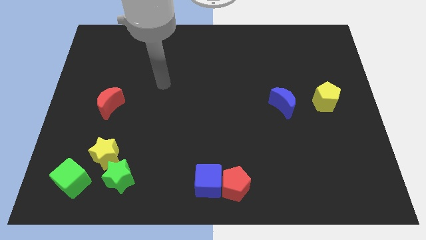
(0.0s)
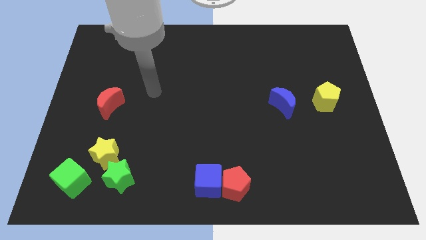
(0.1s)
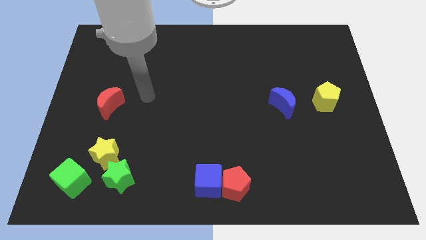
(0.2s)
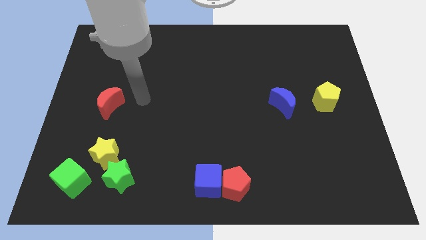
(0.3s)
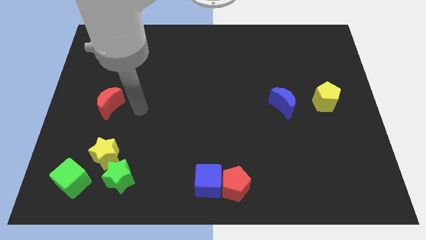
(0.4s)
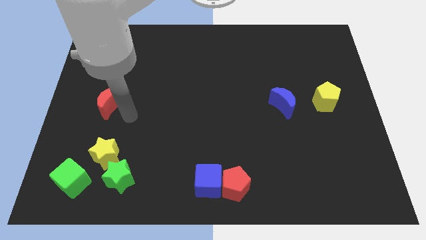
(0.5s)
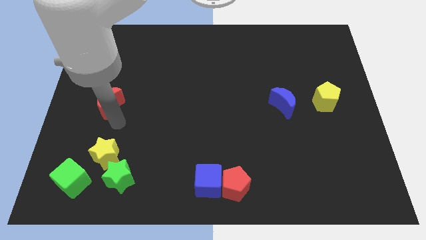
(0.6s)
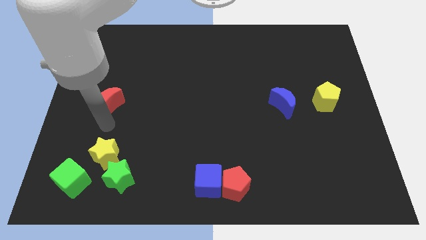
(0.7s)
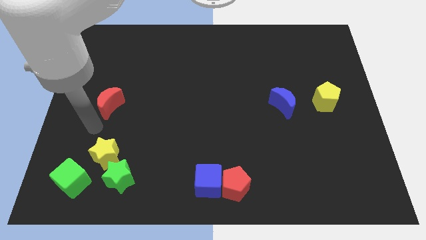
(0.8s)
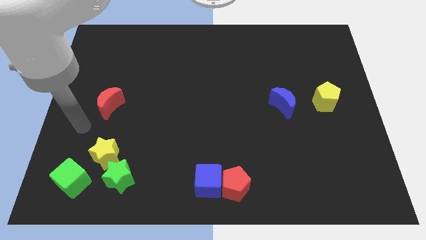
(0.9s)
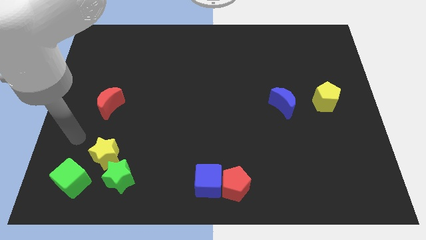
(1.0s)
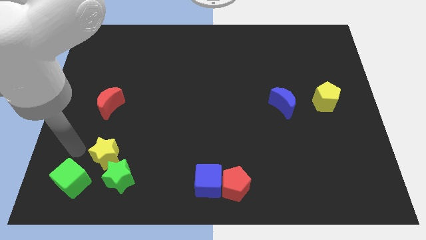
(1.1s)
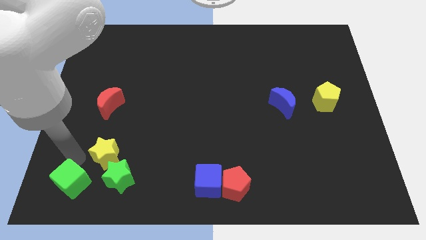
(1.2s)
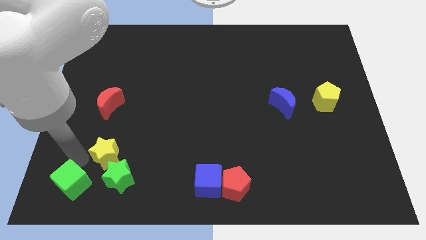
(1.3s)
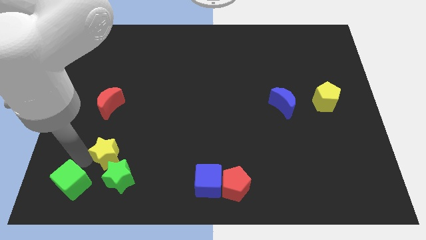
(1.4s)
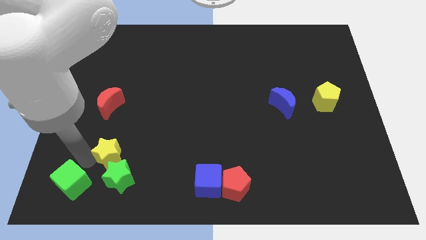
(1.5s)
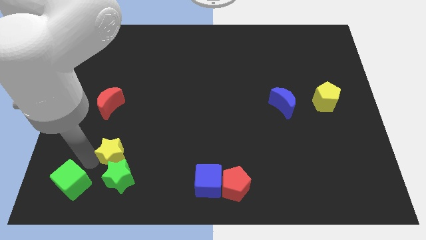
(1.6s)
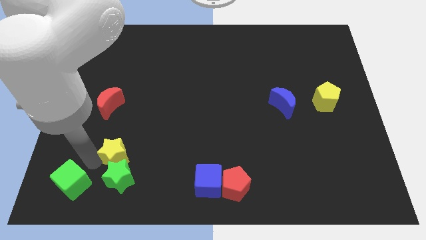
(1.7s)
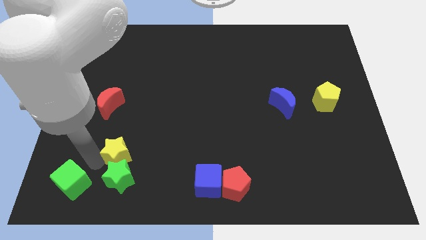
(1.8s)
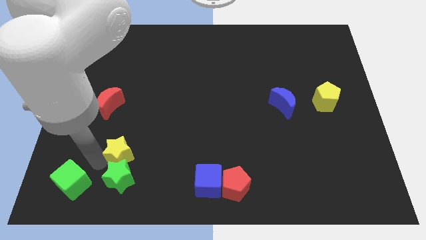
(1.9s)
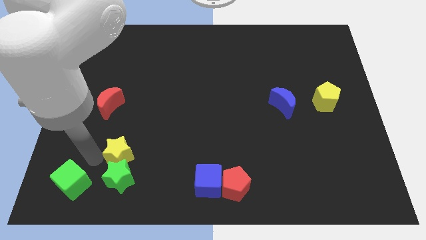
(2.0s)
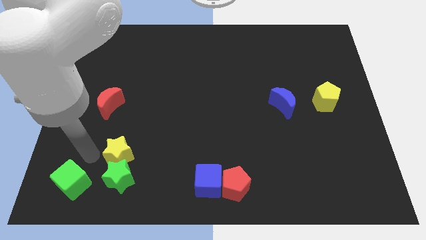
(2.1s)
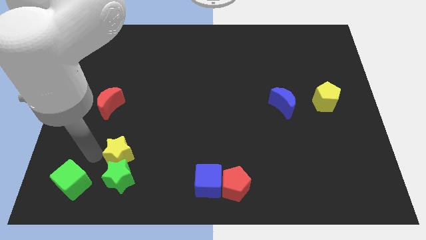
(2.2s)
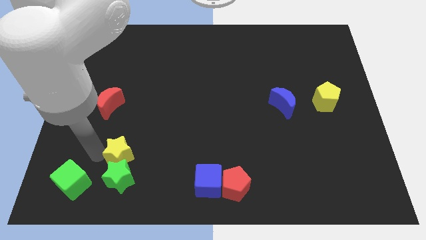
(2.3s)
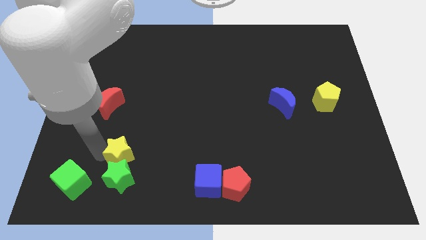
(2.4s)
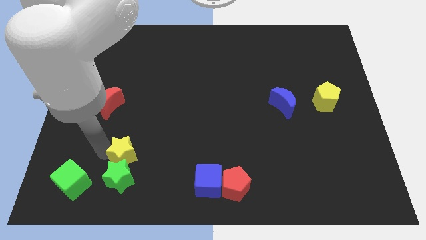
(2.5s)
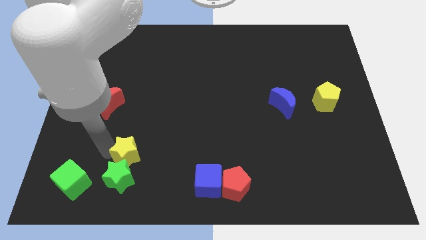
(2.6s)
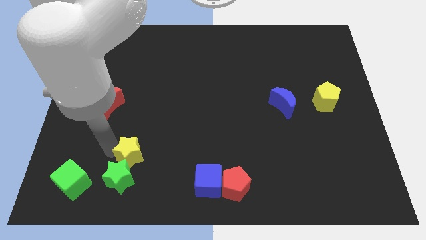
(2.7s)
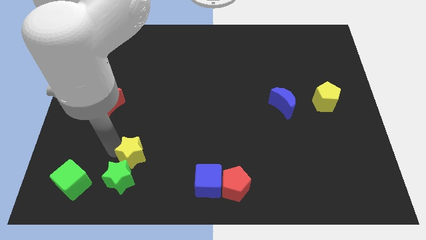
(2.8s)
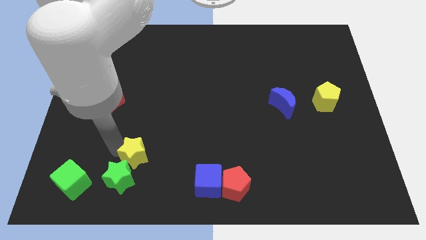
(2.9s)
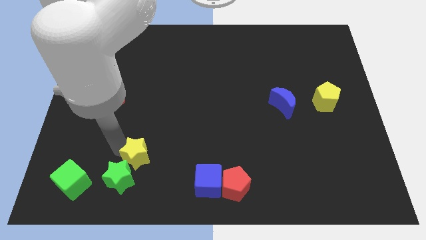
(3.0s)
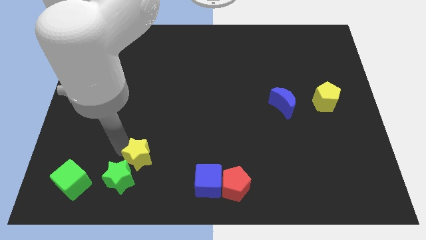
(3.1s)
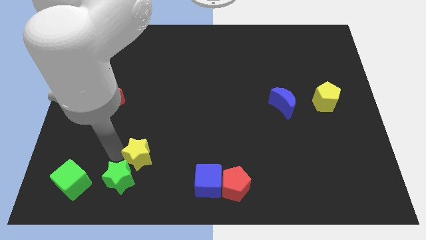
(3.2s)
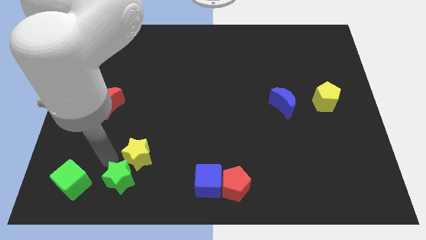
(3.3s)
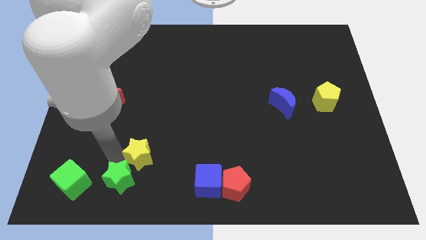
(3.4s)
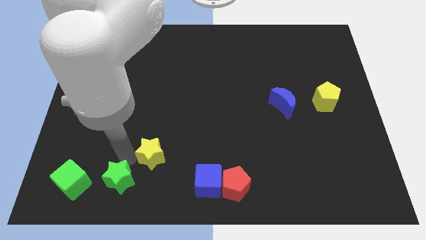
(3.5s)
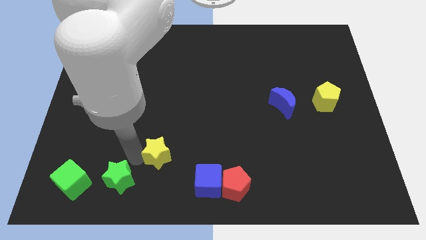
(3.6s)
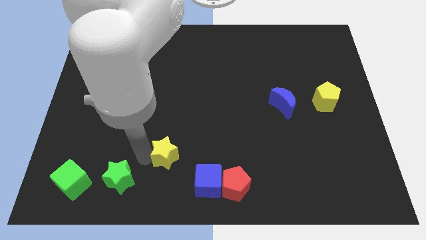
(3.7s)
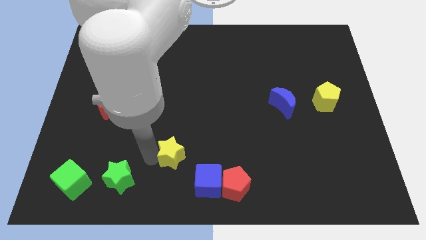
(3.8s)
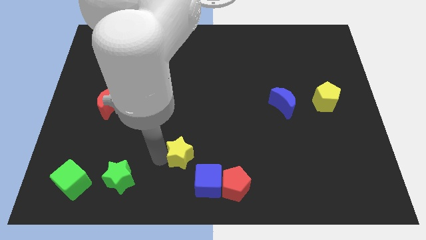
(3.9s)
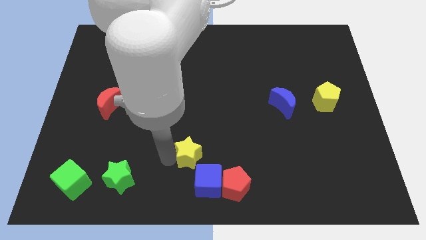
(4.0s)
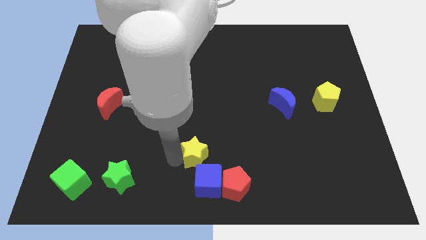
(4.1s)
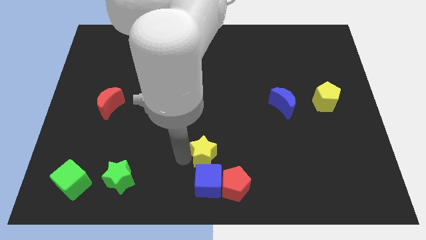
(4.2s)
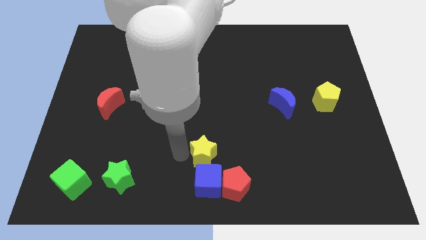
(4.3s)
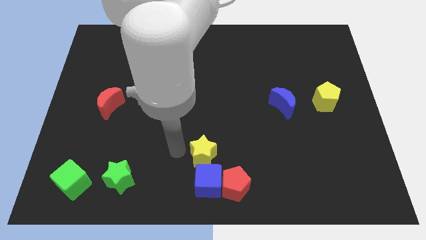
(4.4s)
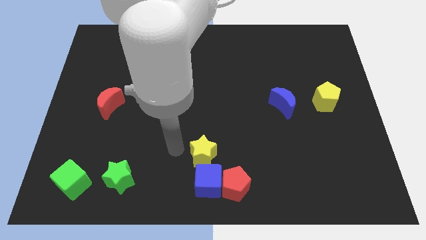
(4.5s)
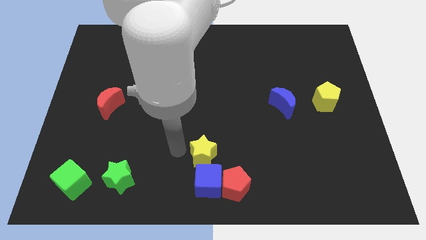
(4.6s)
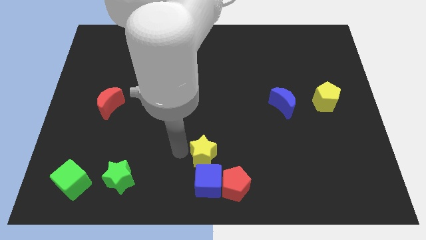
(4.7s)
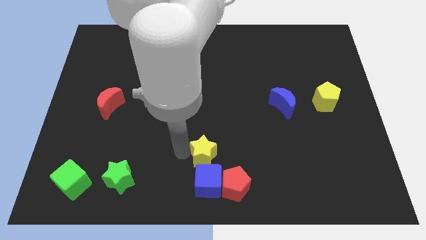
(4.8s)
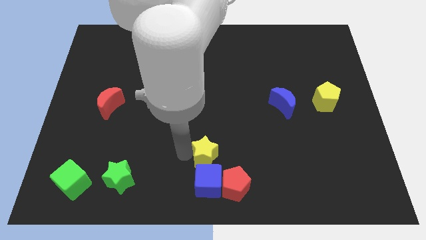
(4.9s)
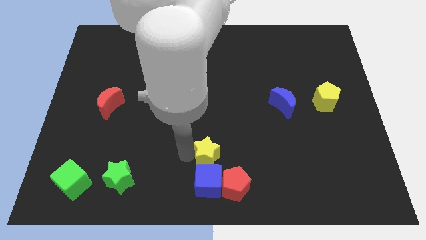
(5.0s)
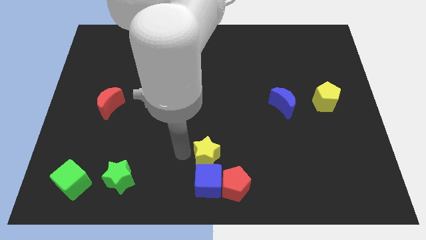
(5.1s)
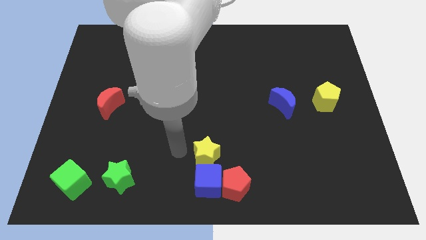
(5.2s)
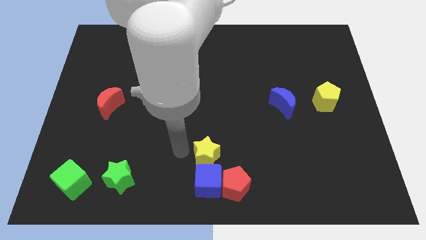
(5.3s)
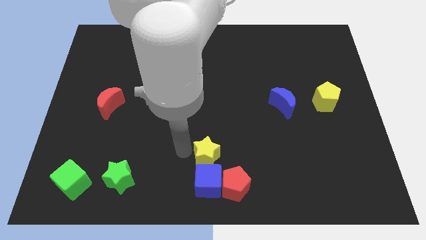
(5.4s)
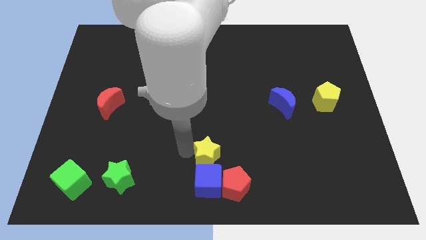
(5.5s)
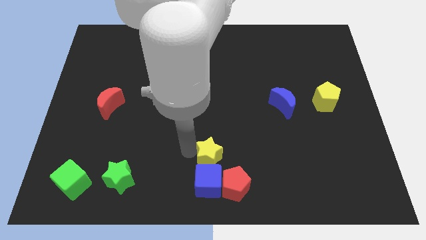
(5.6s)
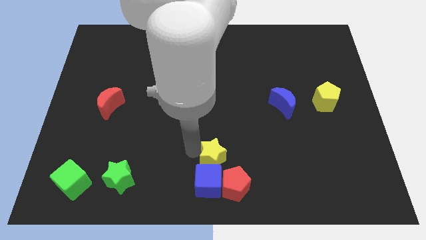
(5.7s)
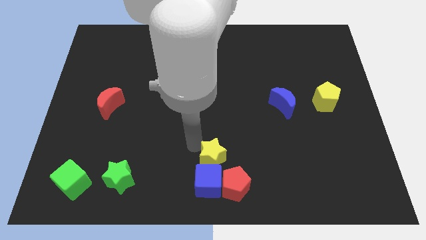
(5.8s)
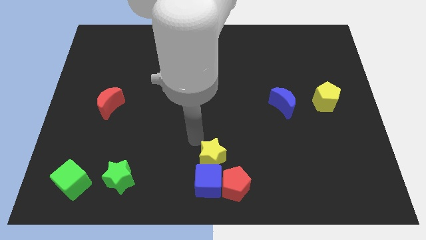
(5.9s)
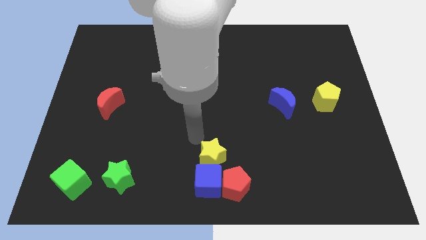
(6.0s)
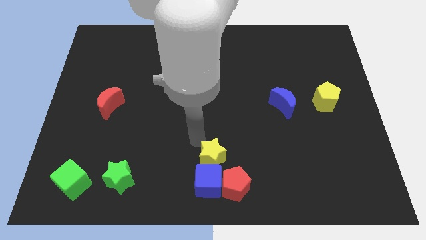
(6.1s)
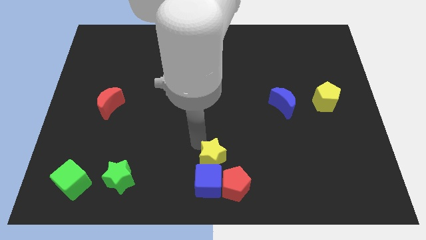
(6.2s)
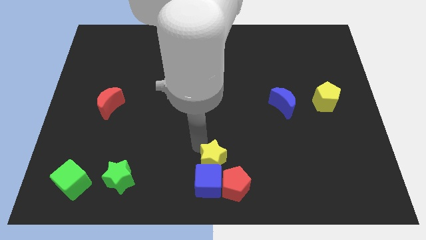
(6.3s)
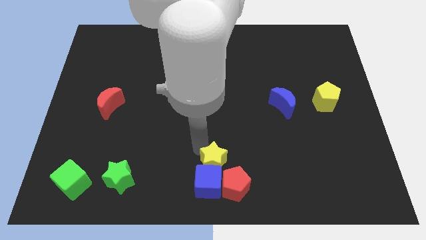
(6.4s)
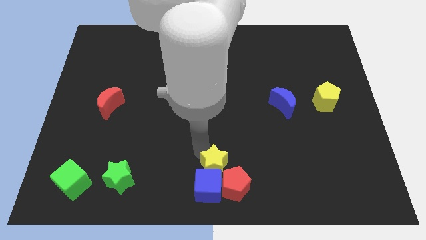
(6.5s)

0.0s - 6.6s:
slide the yellow star to the red pentagon

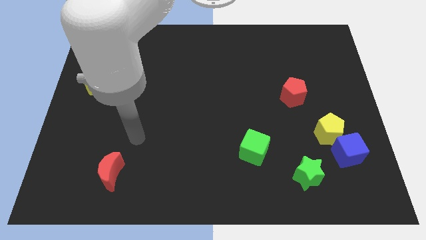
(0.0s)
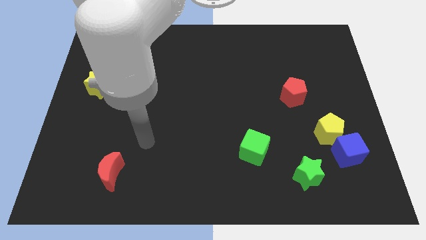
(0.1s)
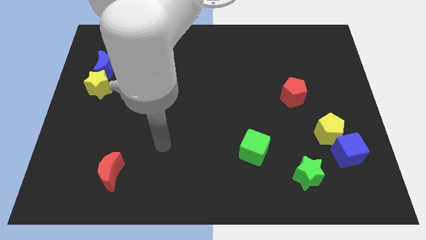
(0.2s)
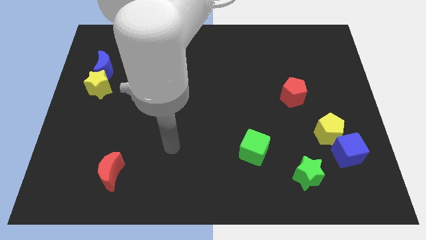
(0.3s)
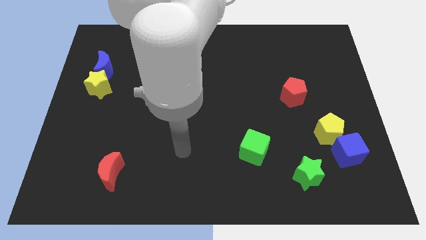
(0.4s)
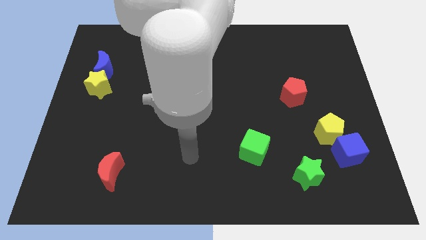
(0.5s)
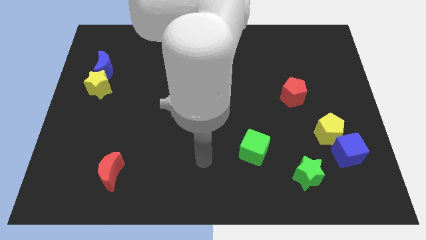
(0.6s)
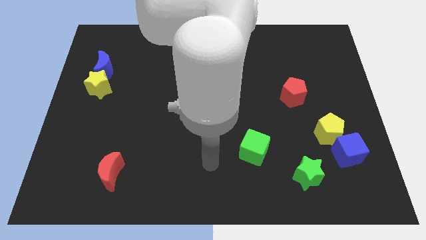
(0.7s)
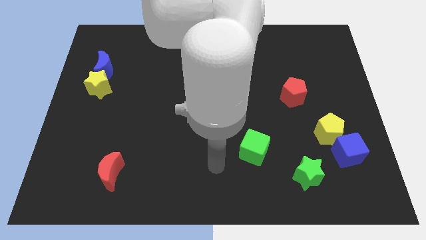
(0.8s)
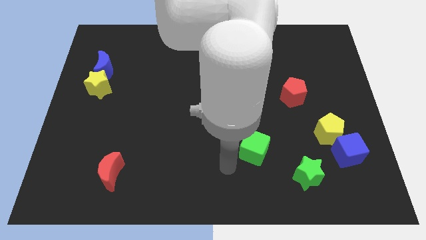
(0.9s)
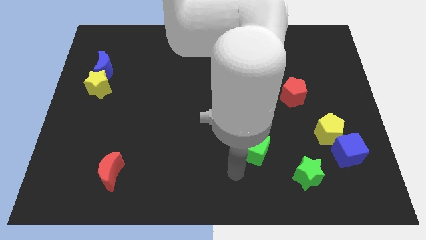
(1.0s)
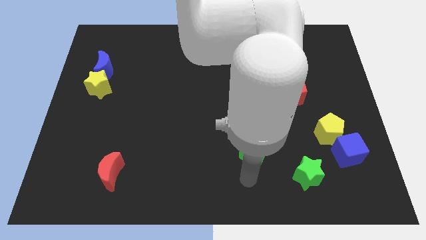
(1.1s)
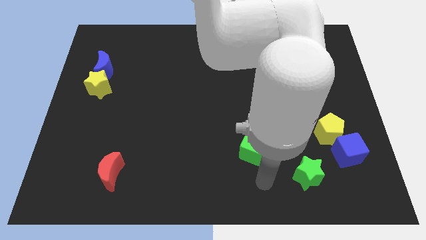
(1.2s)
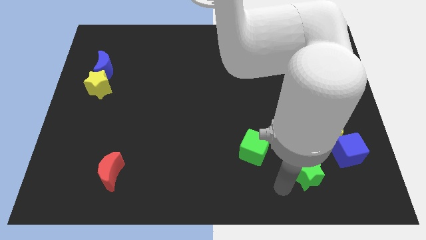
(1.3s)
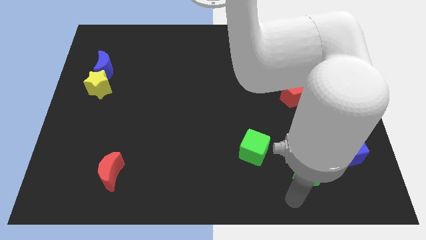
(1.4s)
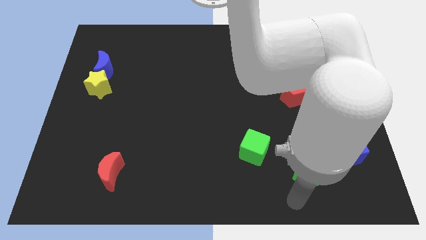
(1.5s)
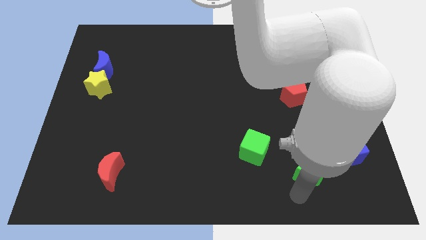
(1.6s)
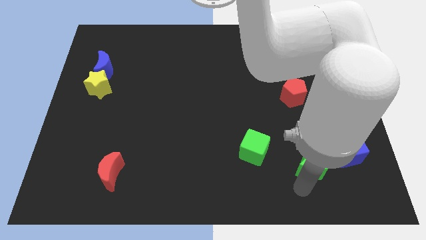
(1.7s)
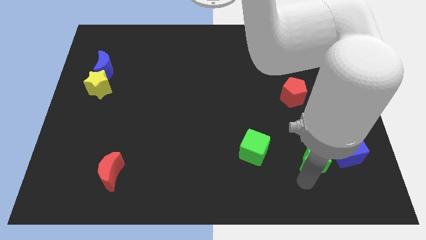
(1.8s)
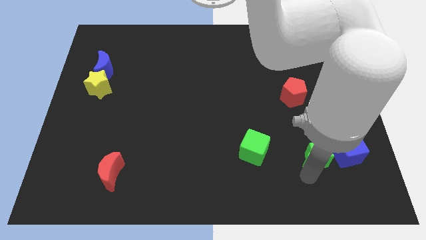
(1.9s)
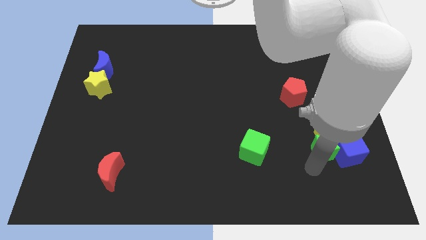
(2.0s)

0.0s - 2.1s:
move the green star towards the yellow pentagon
